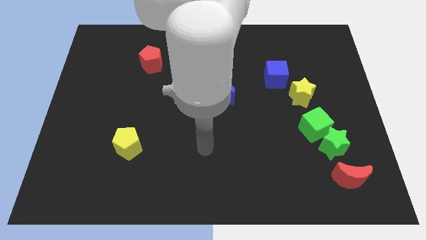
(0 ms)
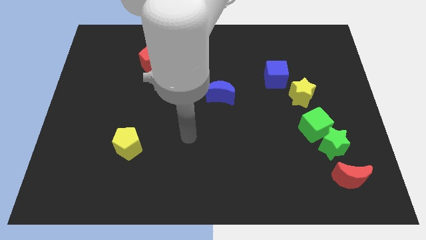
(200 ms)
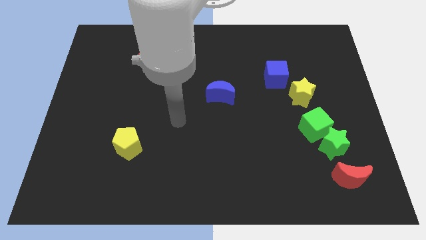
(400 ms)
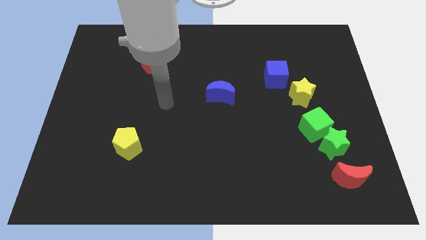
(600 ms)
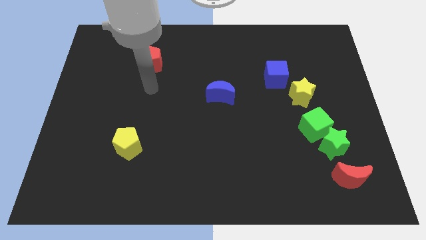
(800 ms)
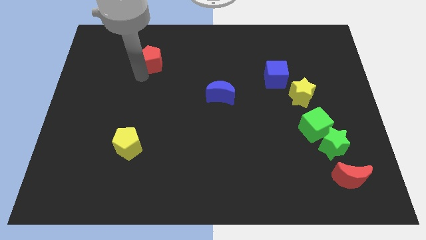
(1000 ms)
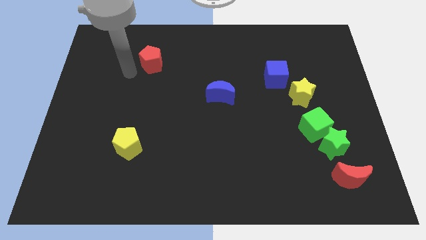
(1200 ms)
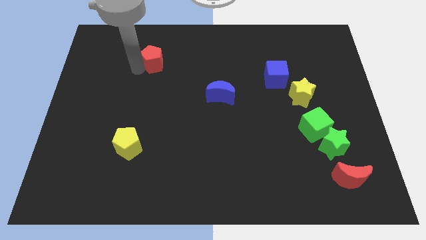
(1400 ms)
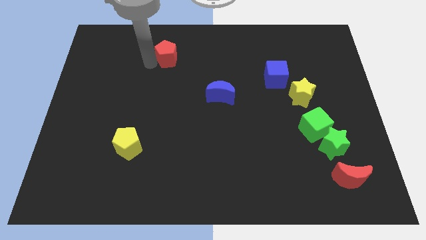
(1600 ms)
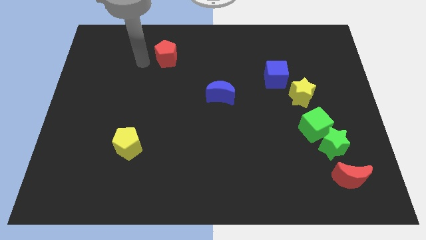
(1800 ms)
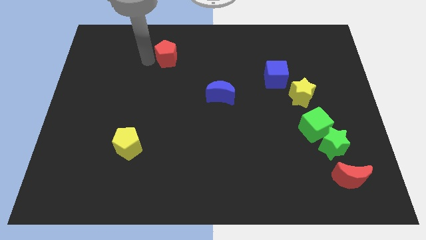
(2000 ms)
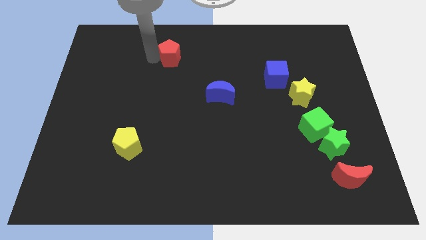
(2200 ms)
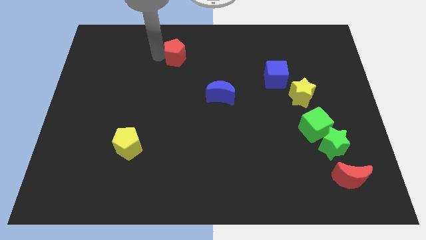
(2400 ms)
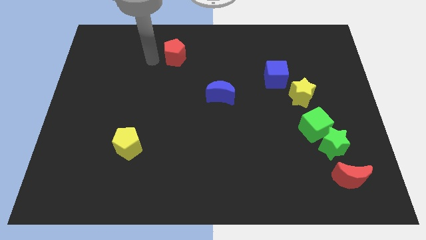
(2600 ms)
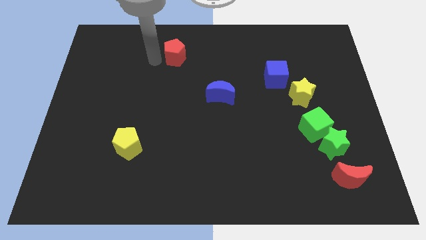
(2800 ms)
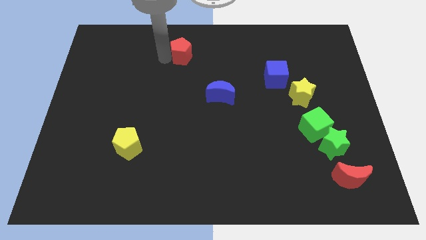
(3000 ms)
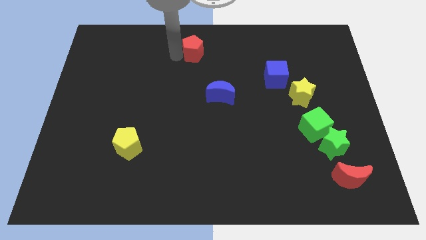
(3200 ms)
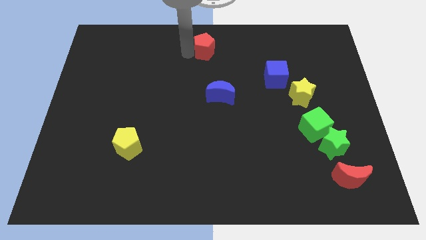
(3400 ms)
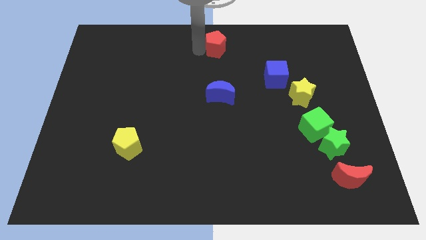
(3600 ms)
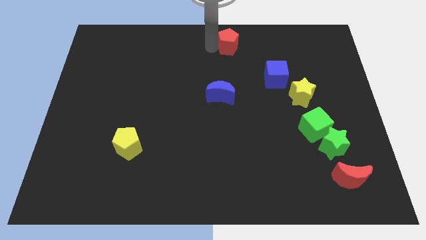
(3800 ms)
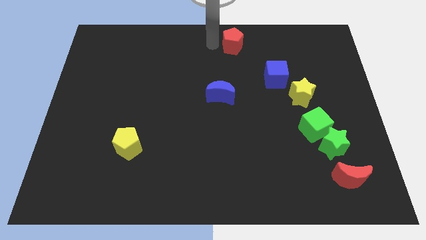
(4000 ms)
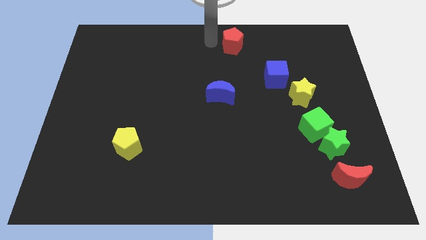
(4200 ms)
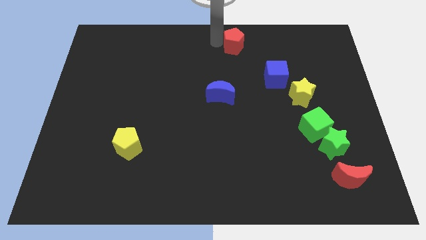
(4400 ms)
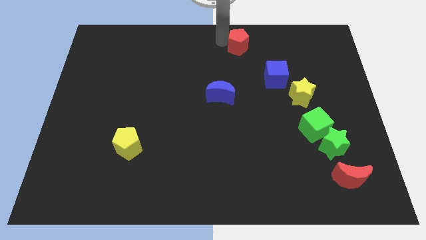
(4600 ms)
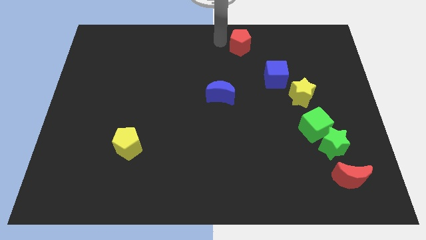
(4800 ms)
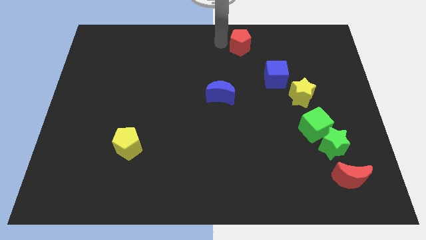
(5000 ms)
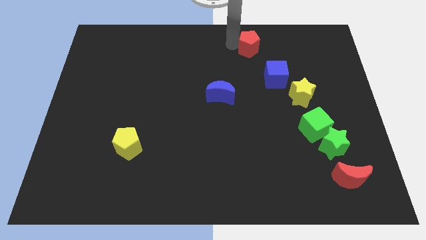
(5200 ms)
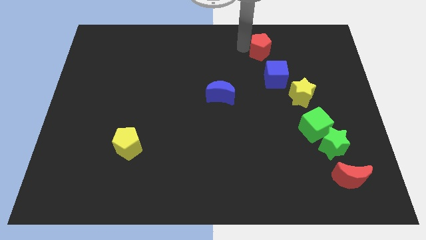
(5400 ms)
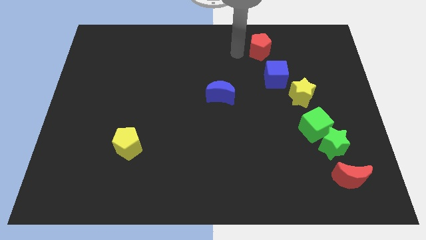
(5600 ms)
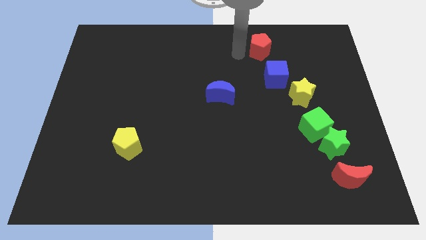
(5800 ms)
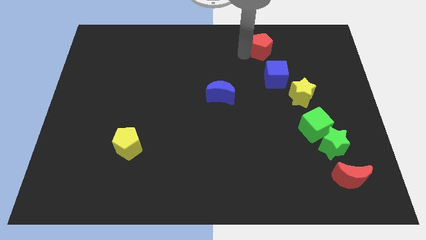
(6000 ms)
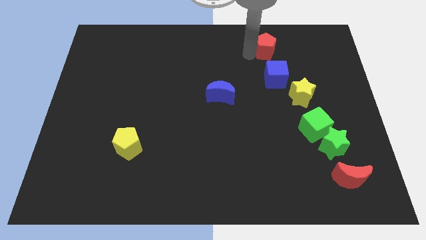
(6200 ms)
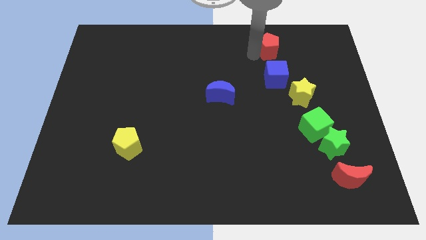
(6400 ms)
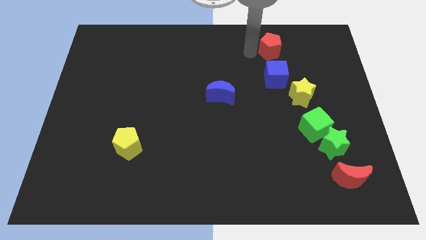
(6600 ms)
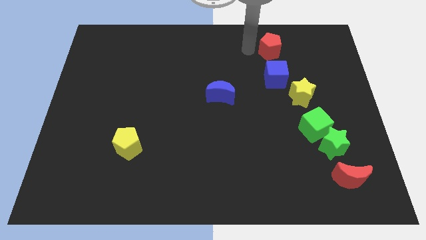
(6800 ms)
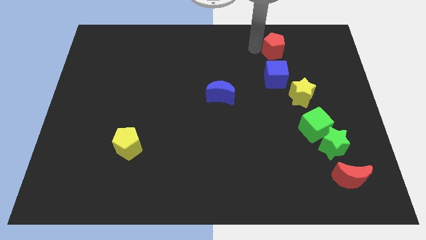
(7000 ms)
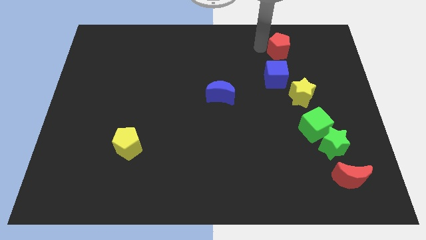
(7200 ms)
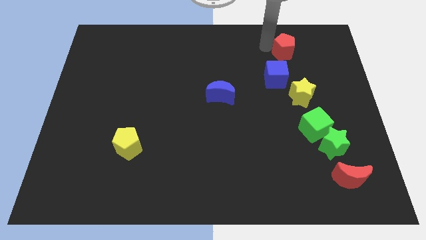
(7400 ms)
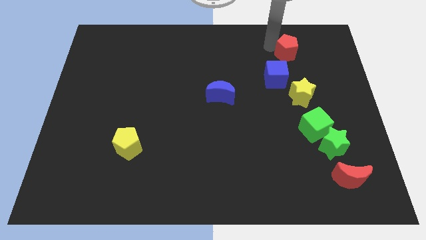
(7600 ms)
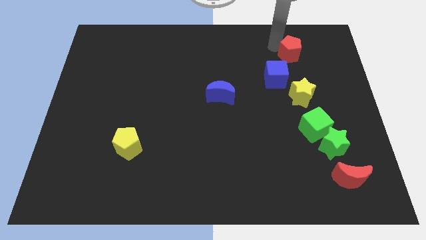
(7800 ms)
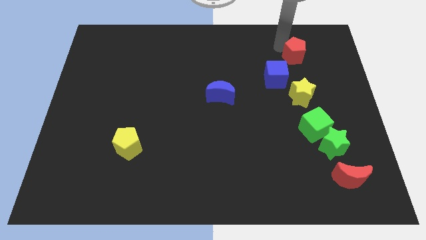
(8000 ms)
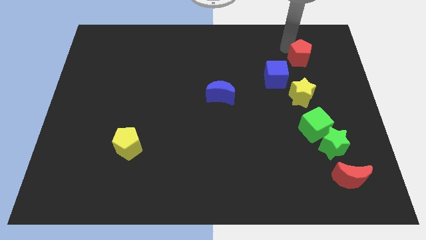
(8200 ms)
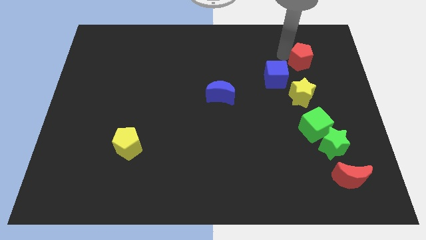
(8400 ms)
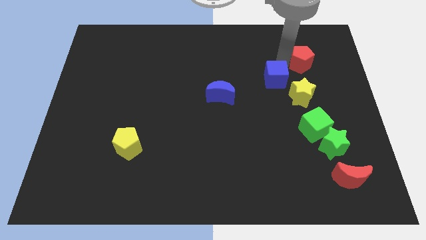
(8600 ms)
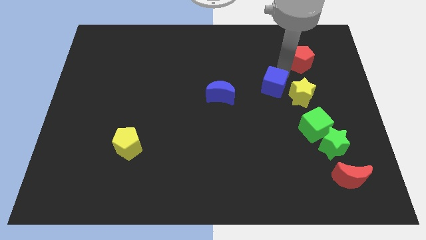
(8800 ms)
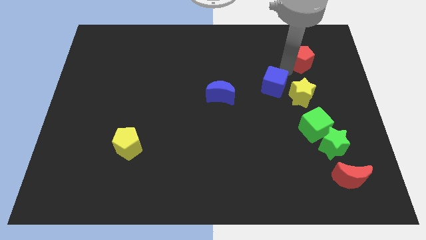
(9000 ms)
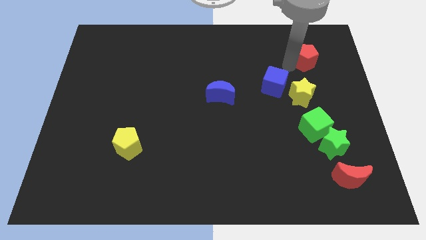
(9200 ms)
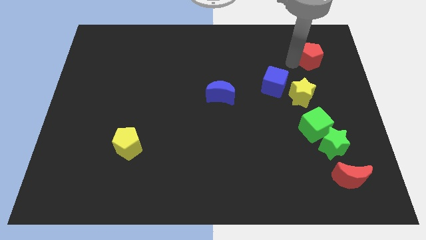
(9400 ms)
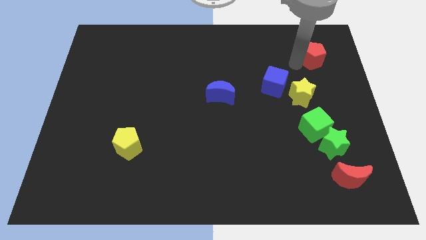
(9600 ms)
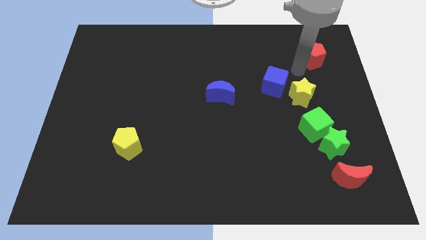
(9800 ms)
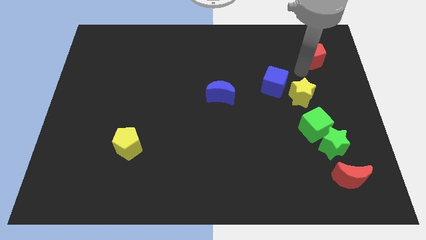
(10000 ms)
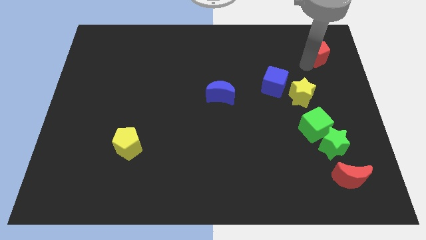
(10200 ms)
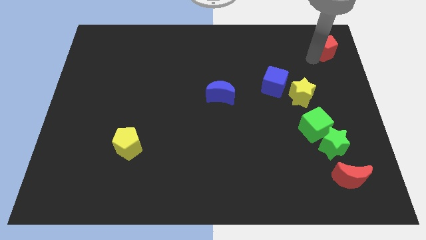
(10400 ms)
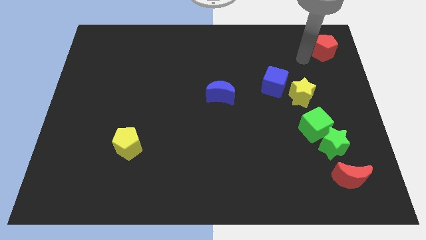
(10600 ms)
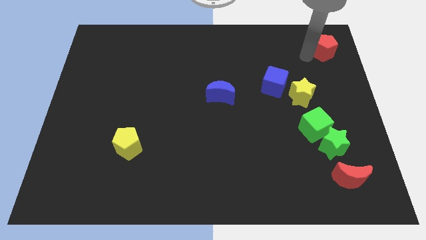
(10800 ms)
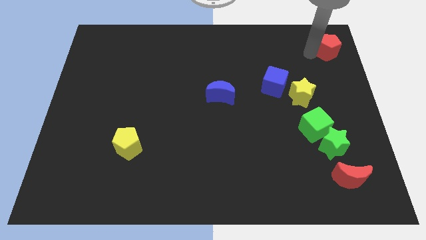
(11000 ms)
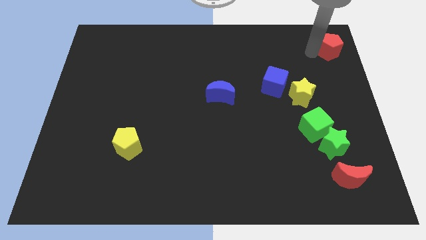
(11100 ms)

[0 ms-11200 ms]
slide the red pentagon to the top right of the board

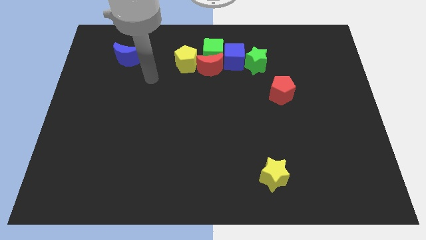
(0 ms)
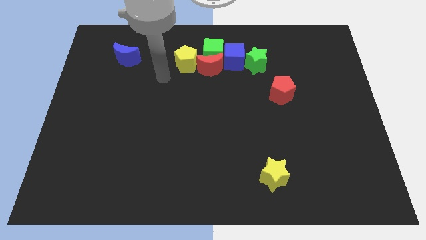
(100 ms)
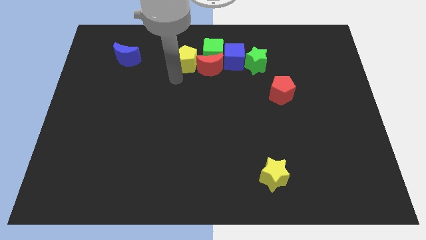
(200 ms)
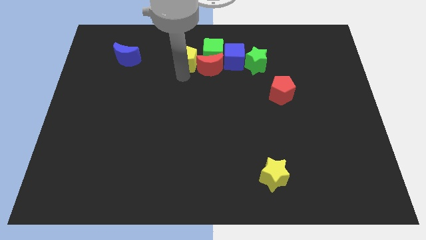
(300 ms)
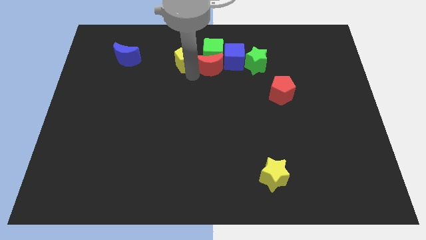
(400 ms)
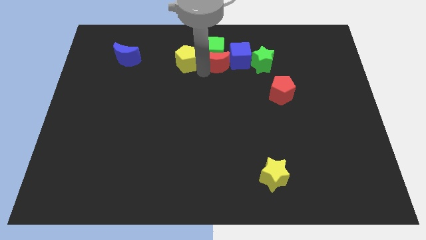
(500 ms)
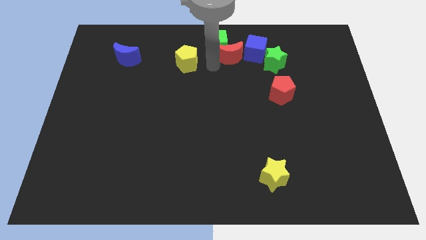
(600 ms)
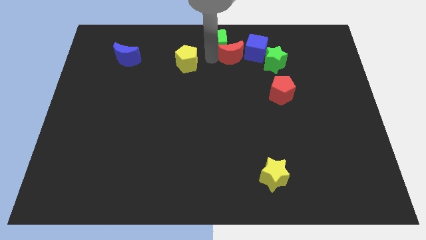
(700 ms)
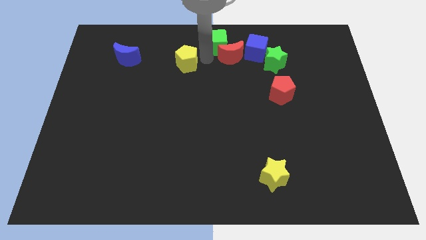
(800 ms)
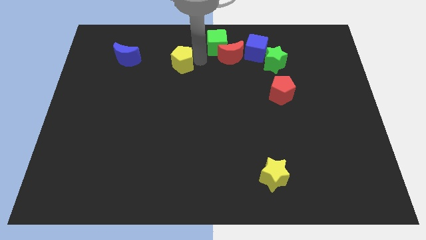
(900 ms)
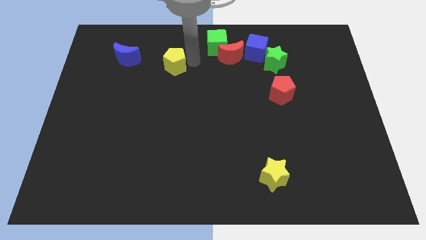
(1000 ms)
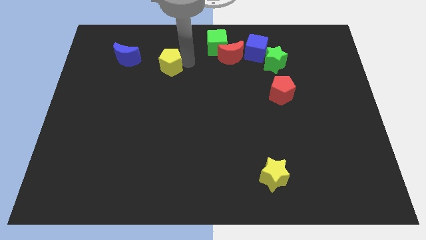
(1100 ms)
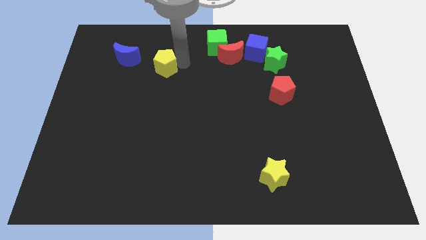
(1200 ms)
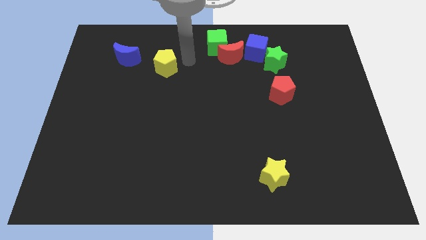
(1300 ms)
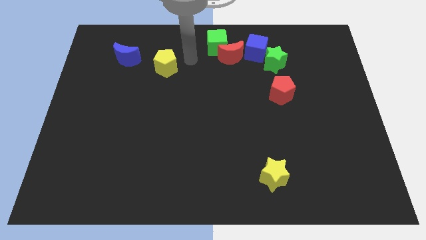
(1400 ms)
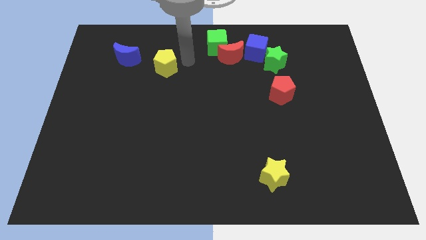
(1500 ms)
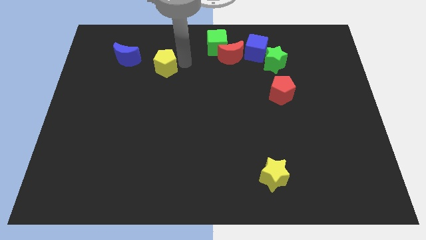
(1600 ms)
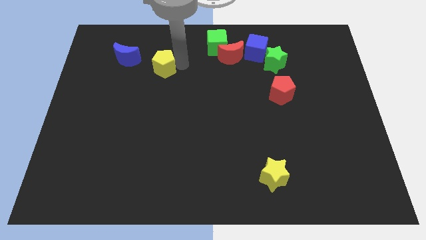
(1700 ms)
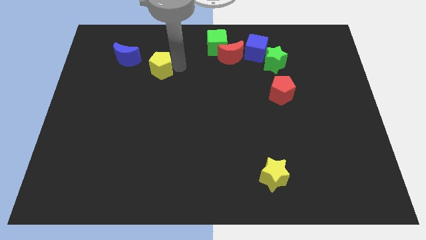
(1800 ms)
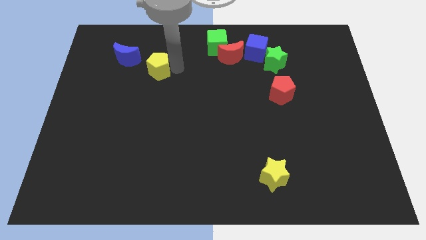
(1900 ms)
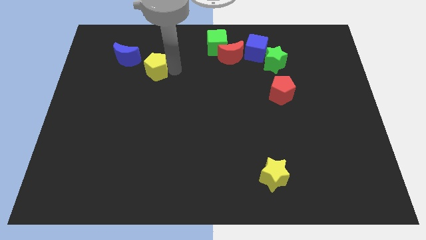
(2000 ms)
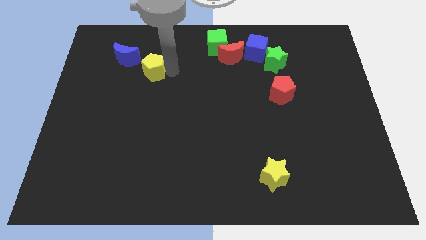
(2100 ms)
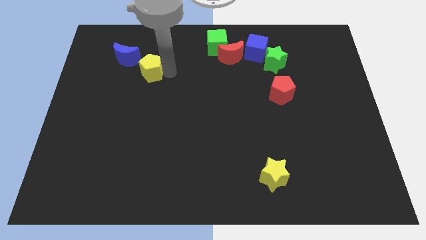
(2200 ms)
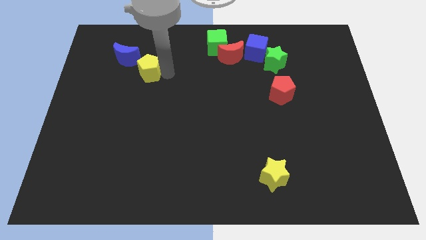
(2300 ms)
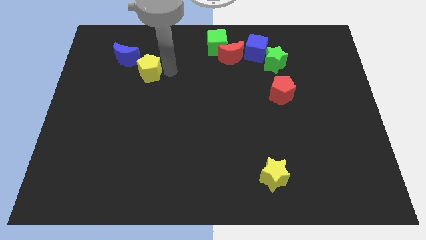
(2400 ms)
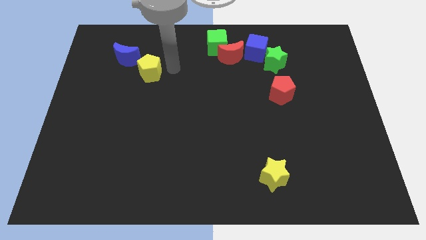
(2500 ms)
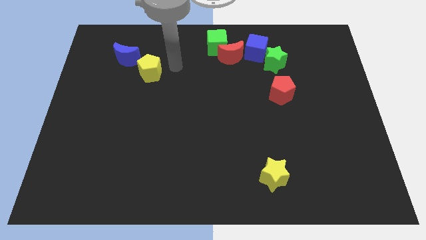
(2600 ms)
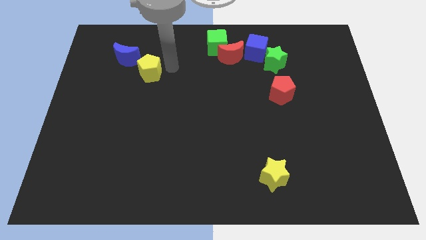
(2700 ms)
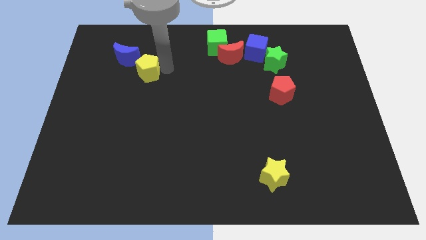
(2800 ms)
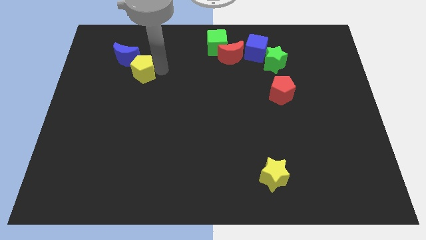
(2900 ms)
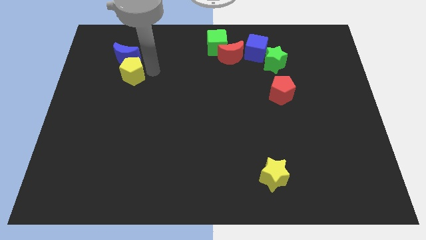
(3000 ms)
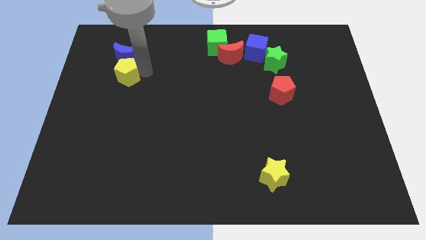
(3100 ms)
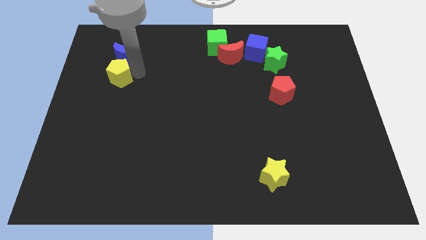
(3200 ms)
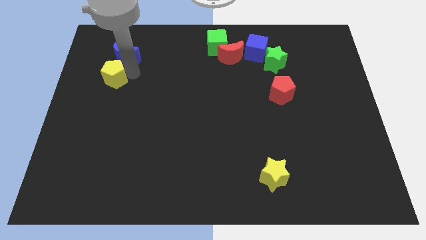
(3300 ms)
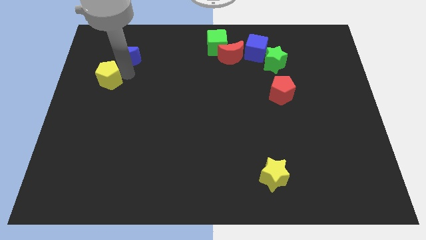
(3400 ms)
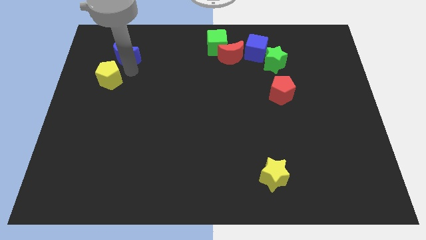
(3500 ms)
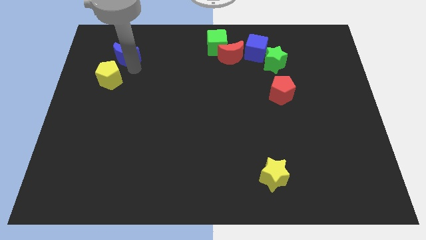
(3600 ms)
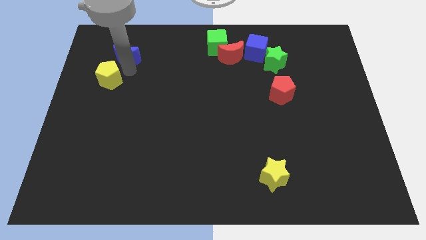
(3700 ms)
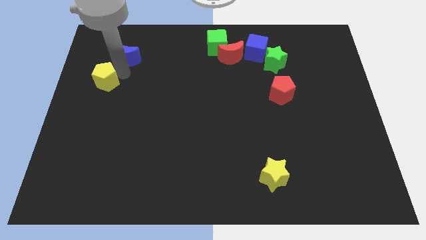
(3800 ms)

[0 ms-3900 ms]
move the yellow pentagon to the center left
